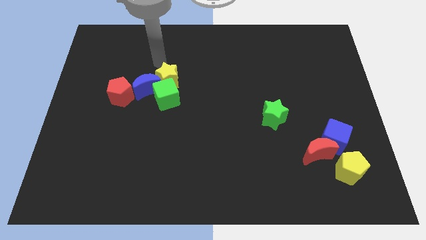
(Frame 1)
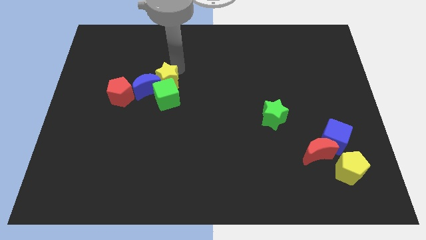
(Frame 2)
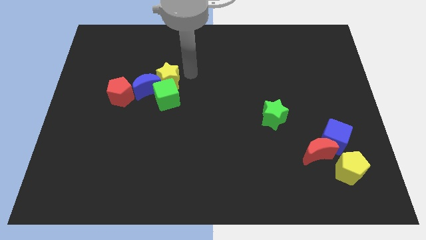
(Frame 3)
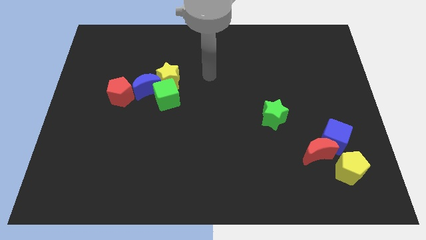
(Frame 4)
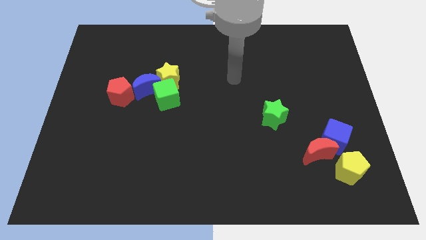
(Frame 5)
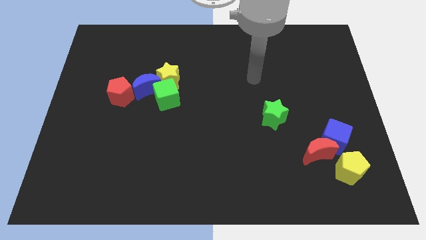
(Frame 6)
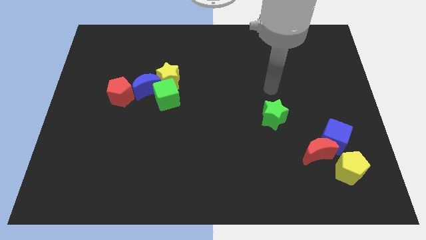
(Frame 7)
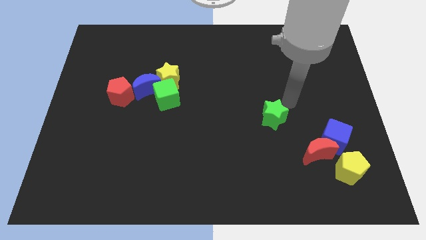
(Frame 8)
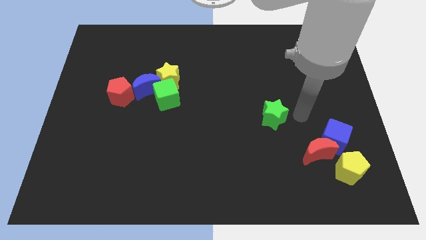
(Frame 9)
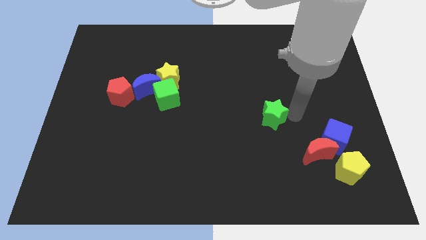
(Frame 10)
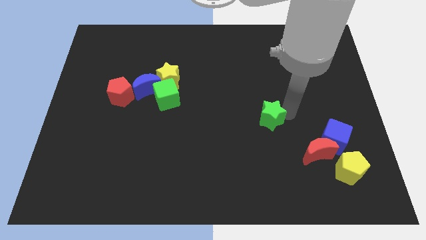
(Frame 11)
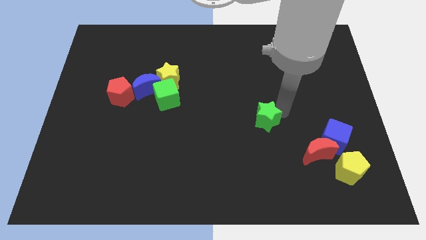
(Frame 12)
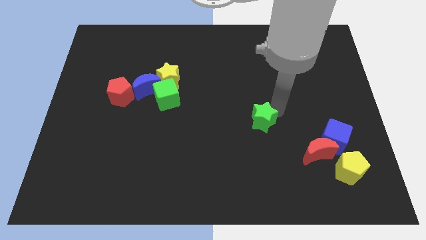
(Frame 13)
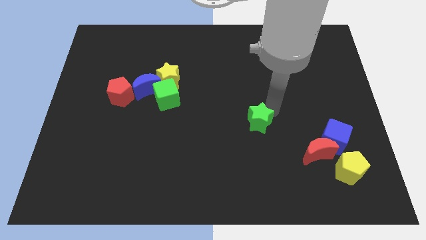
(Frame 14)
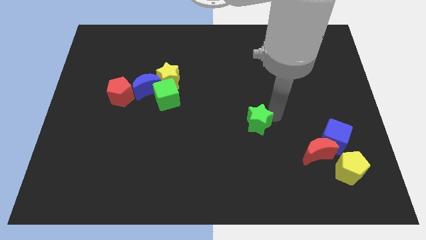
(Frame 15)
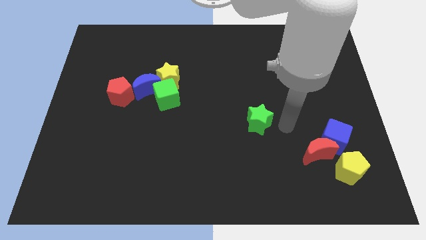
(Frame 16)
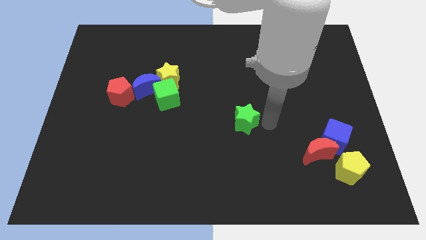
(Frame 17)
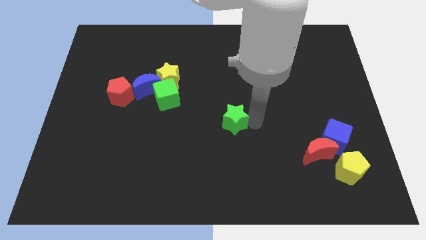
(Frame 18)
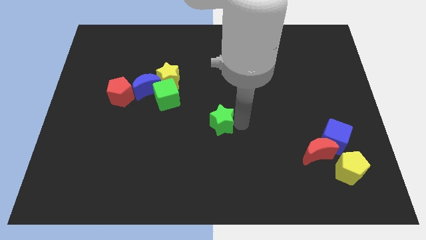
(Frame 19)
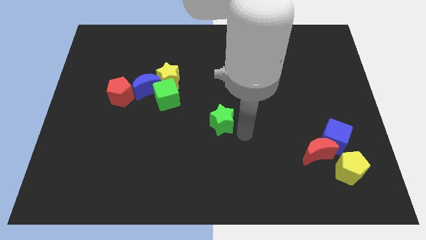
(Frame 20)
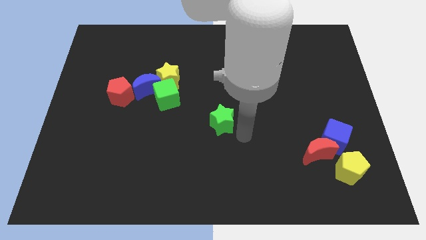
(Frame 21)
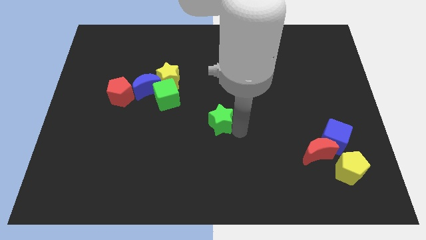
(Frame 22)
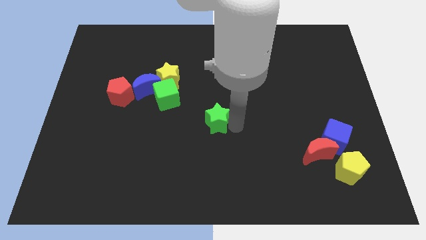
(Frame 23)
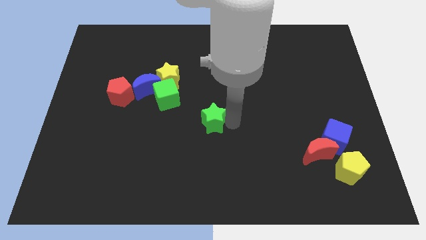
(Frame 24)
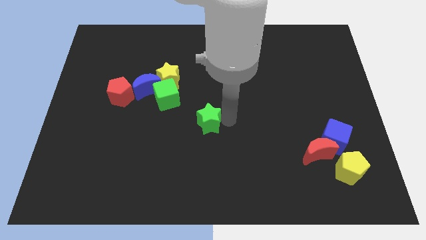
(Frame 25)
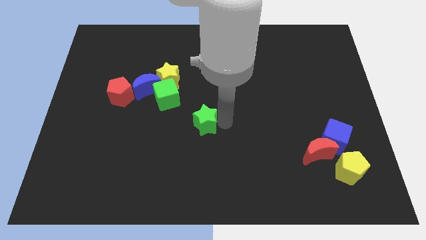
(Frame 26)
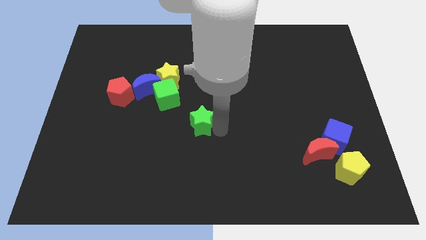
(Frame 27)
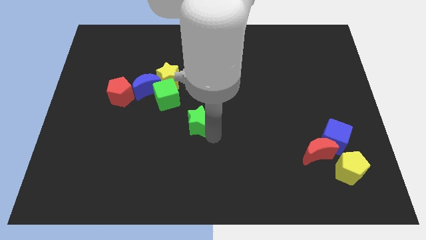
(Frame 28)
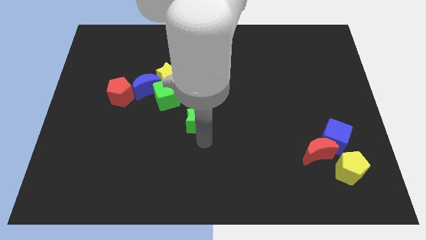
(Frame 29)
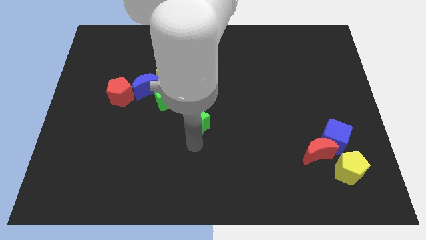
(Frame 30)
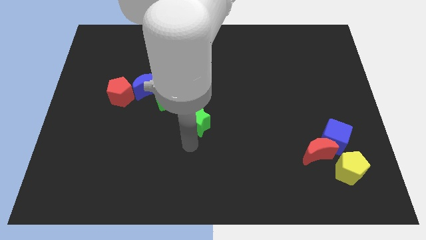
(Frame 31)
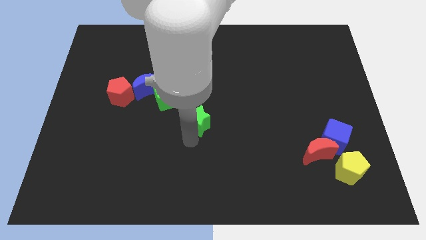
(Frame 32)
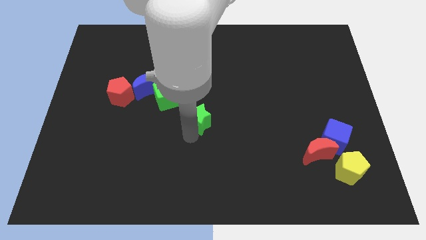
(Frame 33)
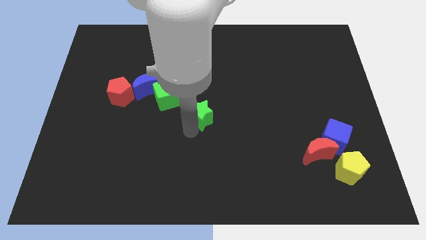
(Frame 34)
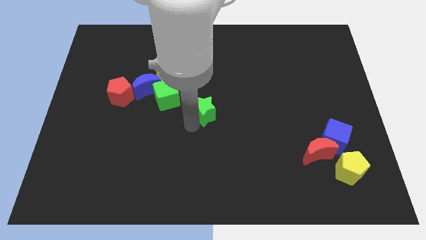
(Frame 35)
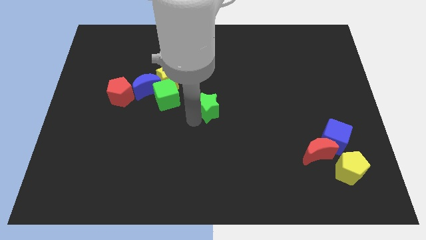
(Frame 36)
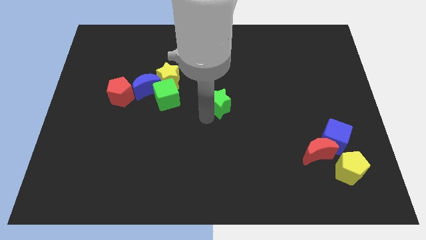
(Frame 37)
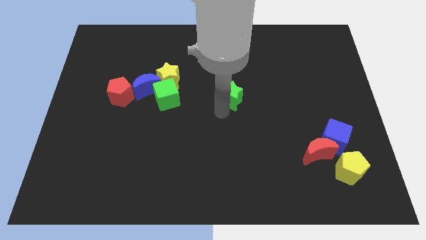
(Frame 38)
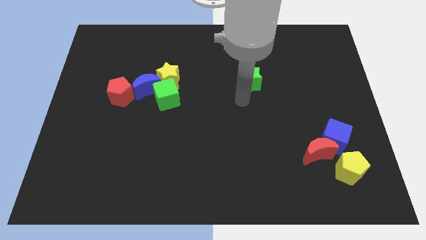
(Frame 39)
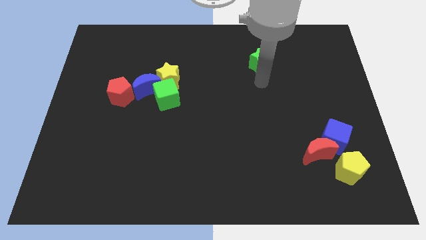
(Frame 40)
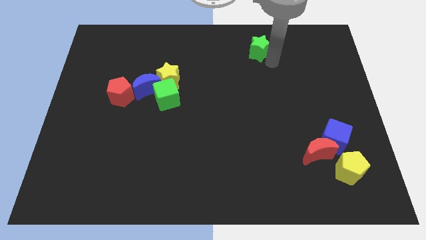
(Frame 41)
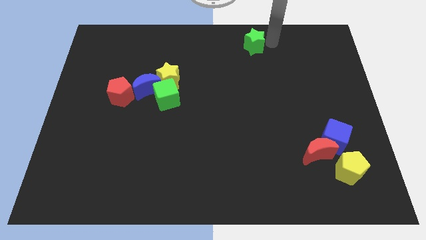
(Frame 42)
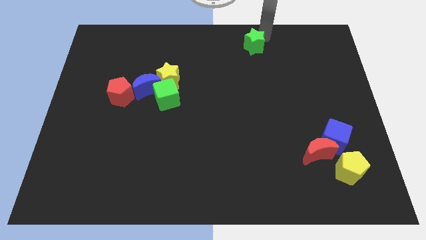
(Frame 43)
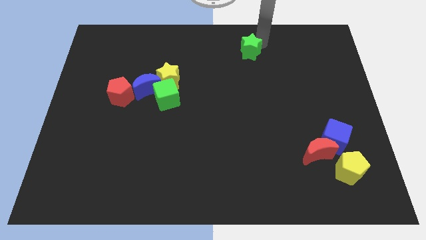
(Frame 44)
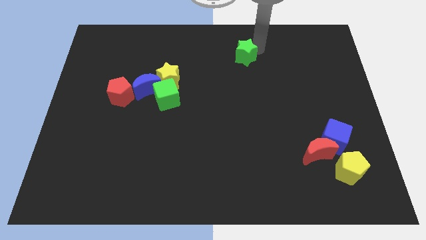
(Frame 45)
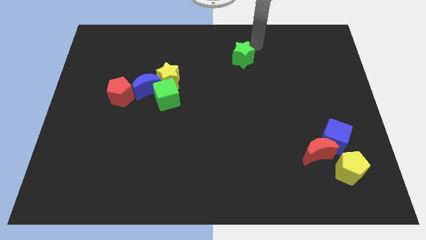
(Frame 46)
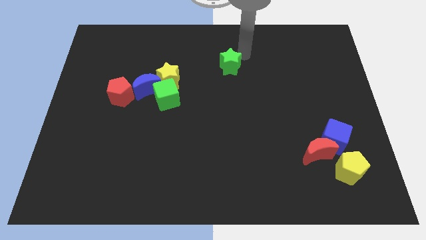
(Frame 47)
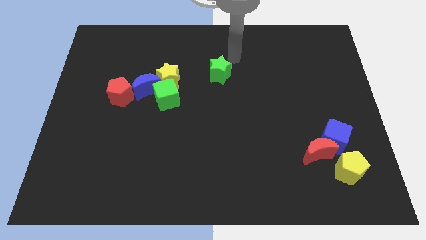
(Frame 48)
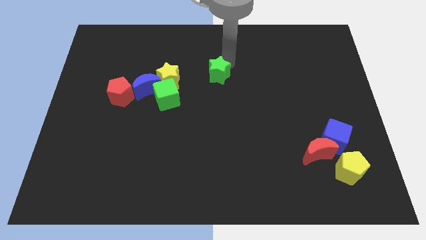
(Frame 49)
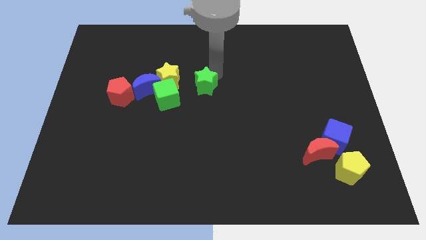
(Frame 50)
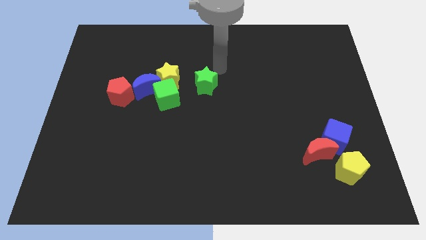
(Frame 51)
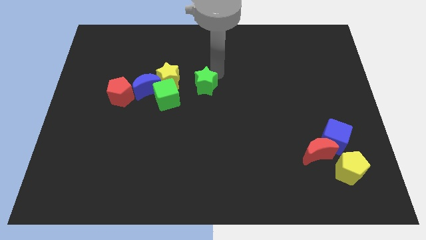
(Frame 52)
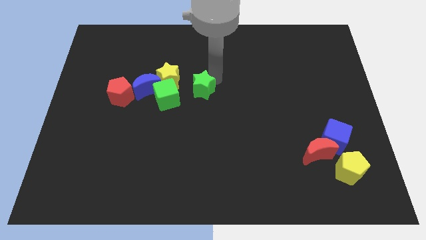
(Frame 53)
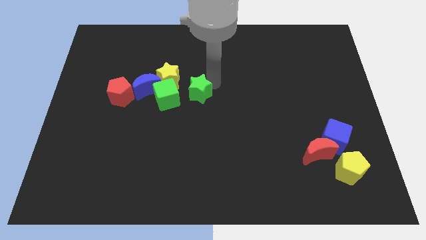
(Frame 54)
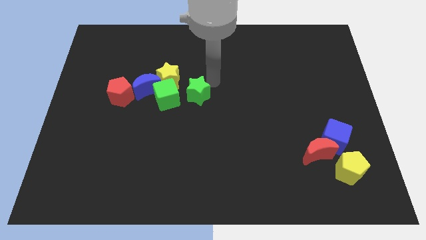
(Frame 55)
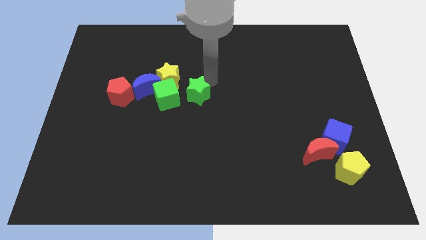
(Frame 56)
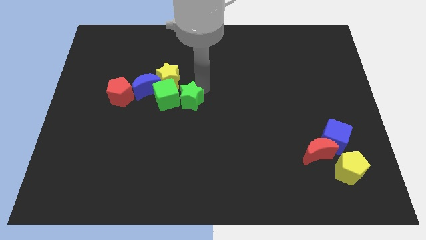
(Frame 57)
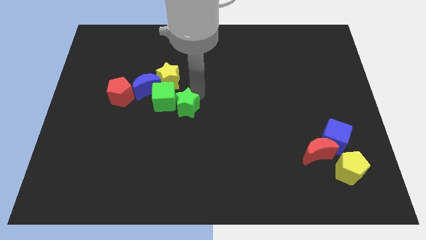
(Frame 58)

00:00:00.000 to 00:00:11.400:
push the green star to the left

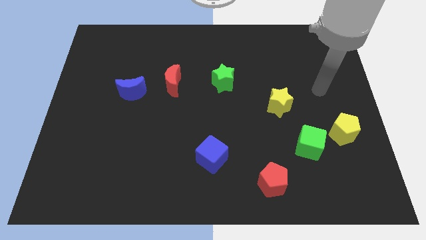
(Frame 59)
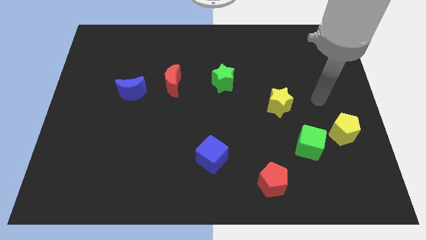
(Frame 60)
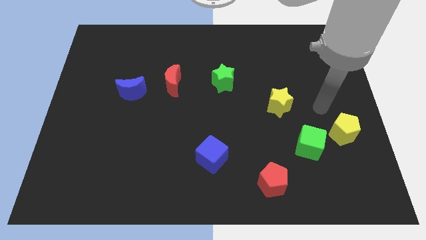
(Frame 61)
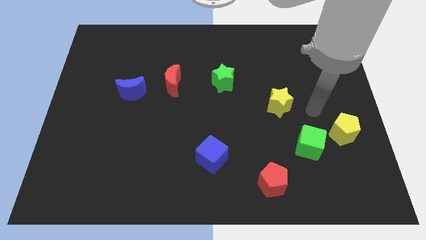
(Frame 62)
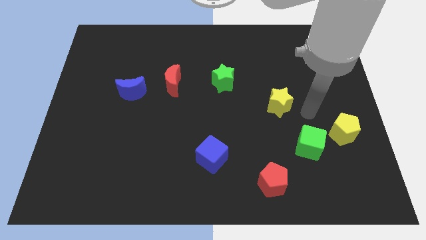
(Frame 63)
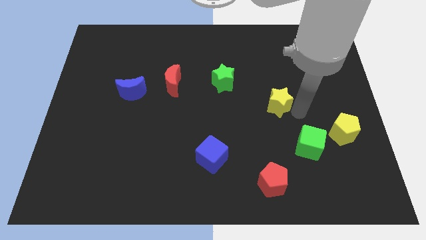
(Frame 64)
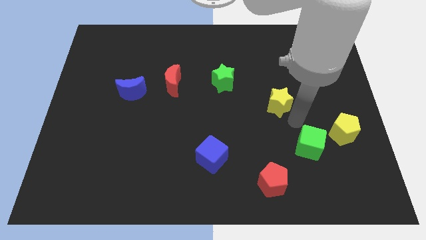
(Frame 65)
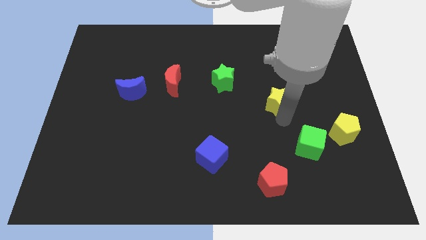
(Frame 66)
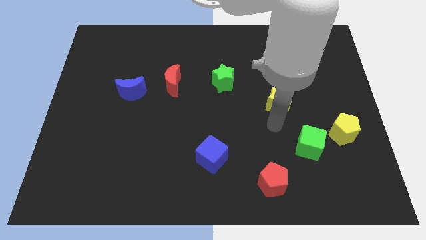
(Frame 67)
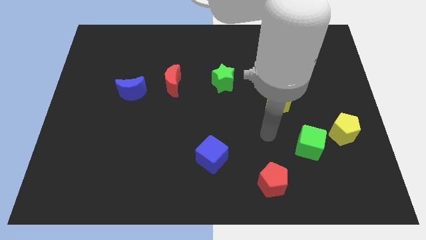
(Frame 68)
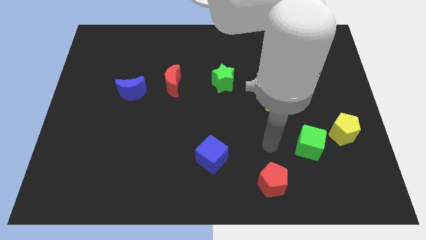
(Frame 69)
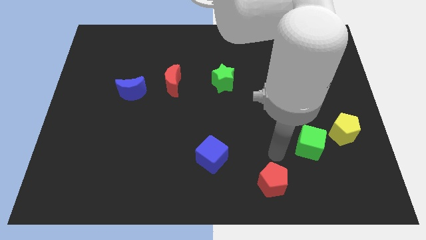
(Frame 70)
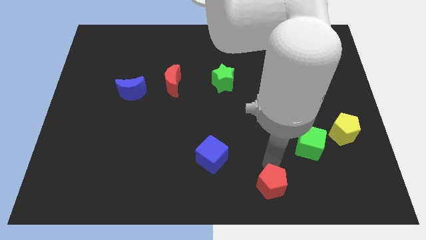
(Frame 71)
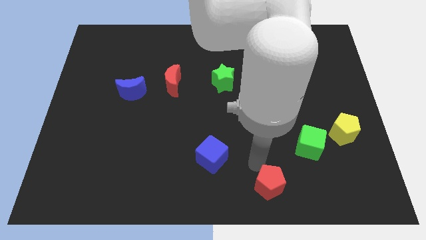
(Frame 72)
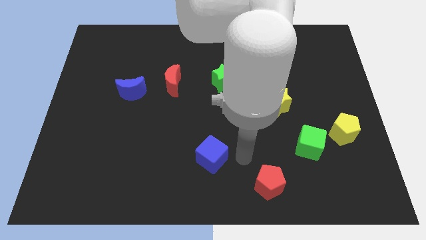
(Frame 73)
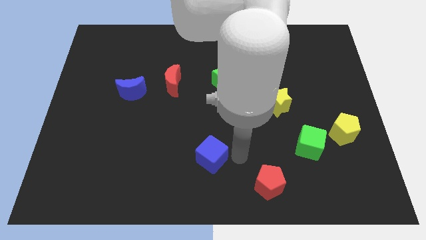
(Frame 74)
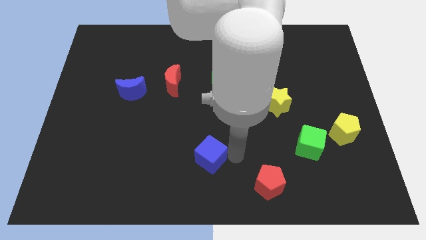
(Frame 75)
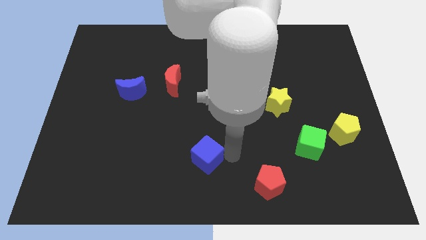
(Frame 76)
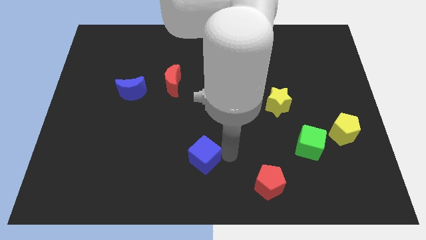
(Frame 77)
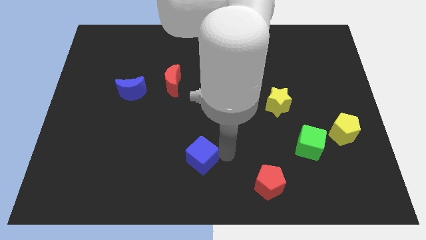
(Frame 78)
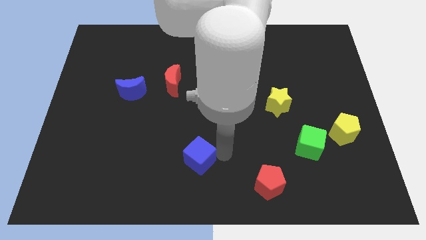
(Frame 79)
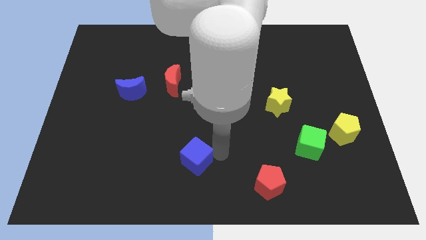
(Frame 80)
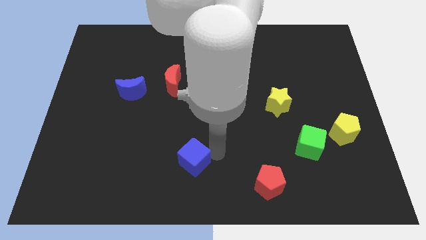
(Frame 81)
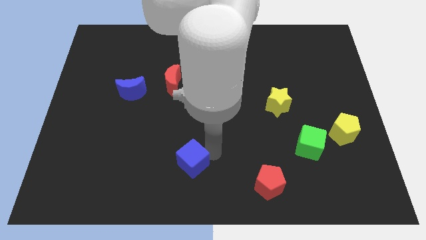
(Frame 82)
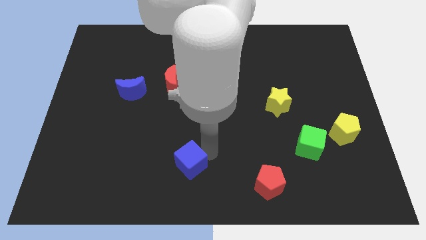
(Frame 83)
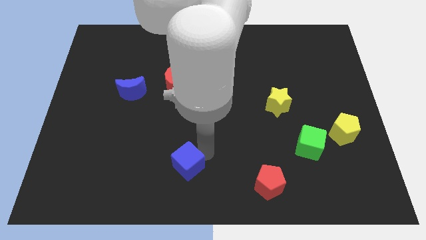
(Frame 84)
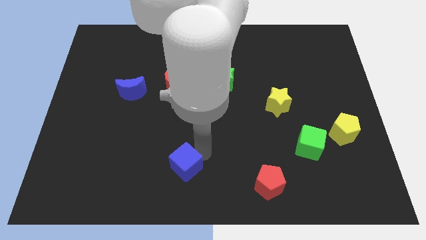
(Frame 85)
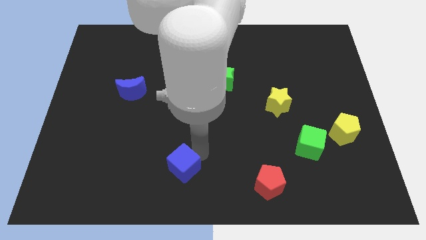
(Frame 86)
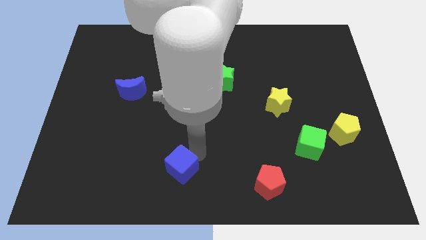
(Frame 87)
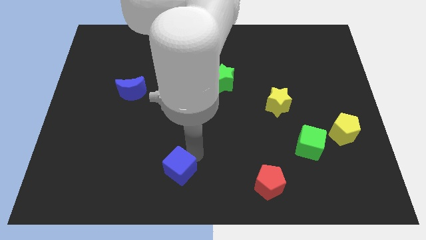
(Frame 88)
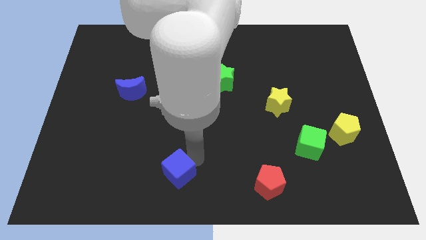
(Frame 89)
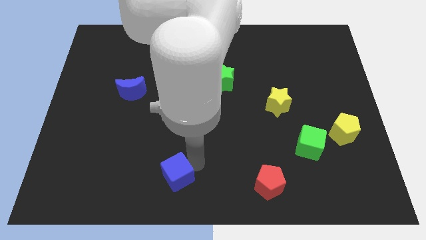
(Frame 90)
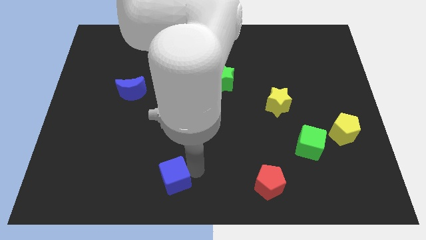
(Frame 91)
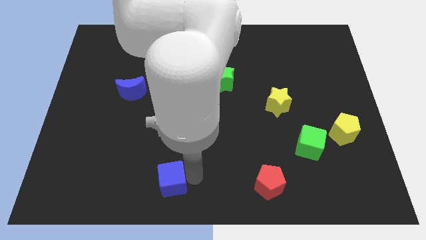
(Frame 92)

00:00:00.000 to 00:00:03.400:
slide the blue cube somewhat to the left
